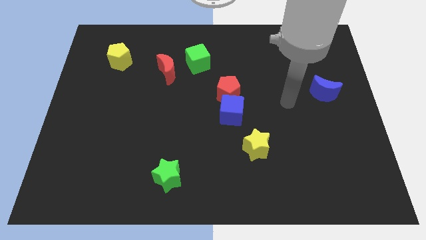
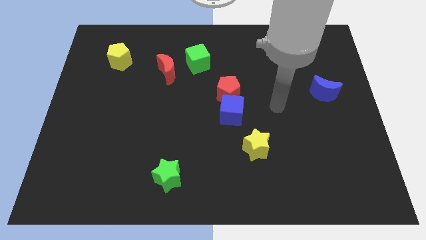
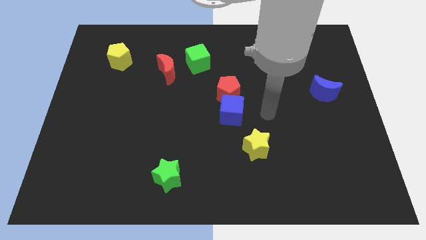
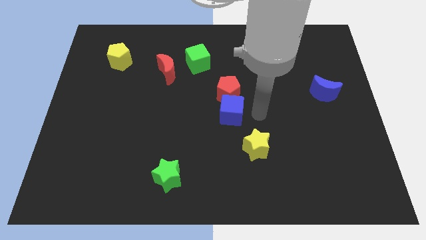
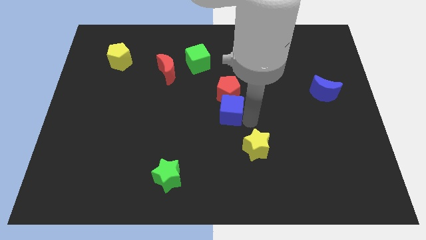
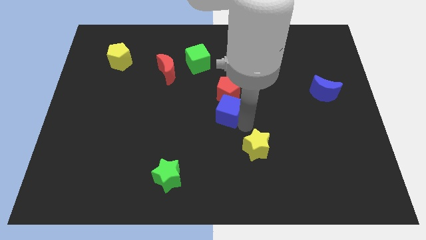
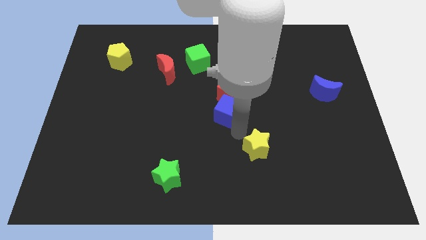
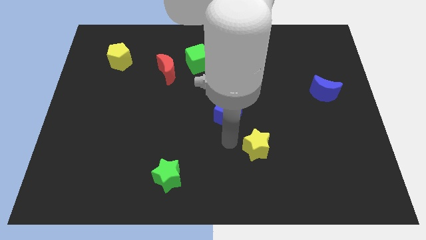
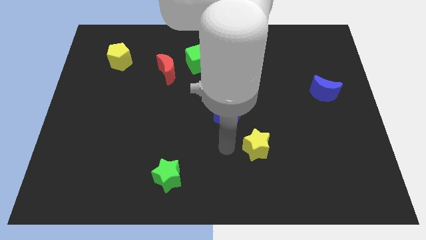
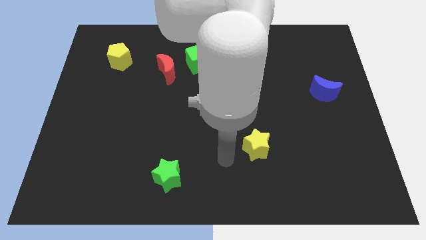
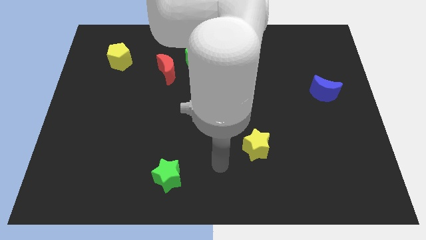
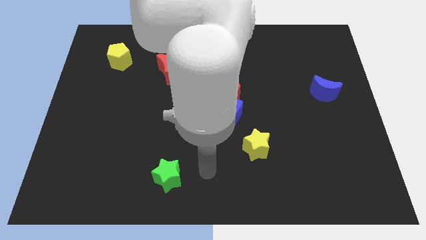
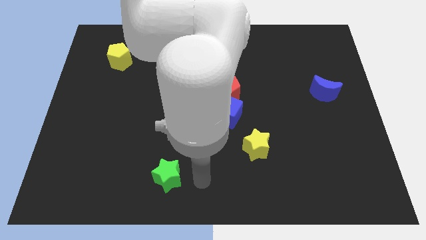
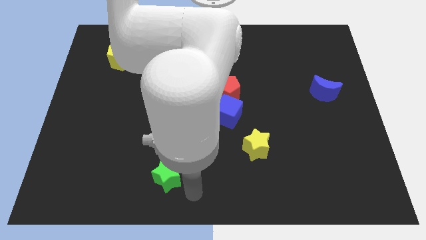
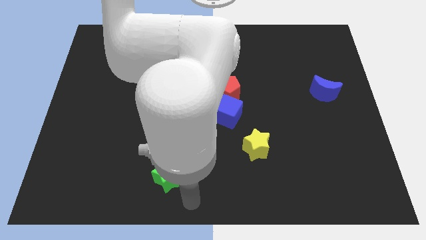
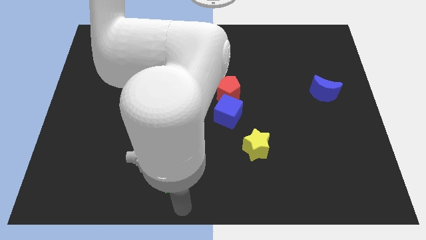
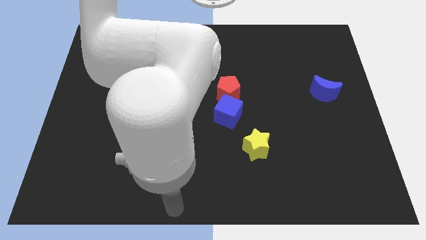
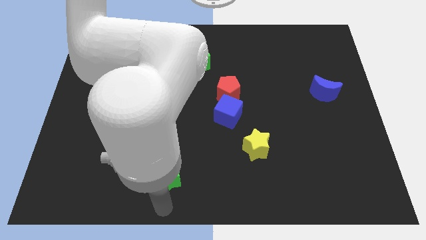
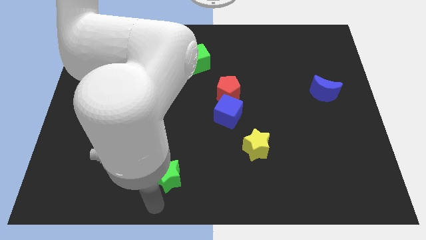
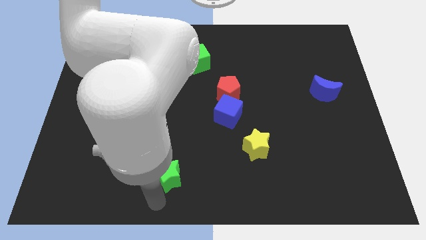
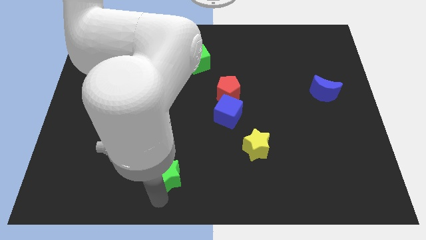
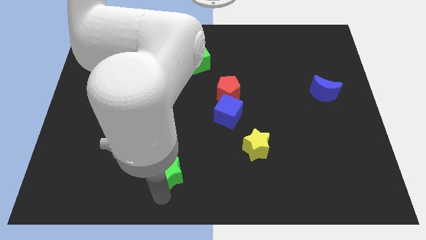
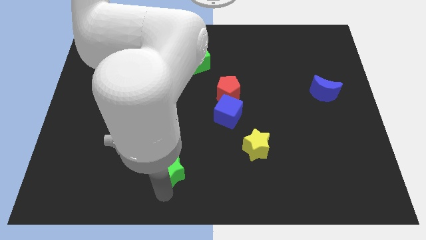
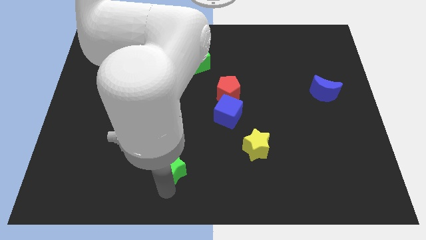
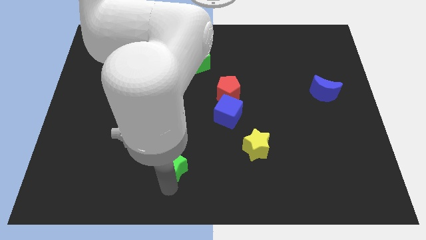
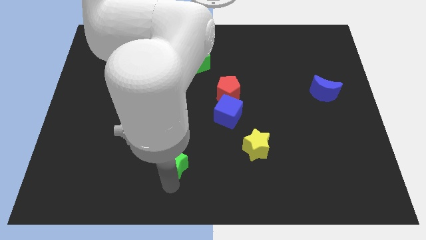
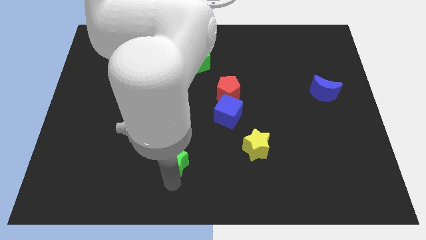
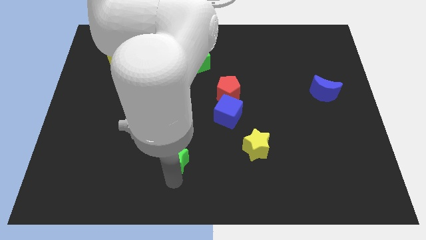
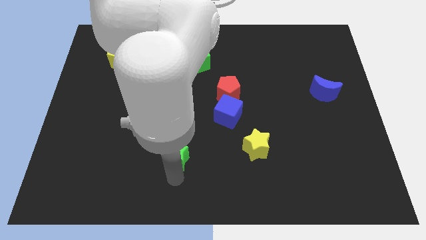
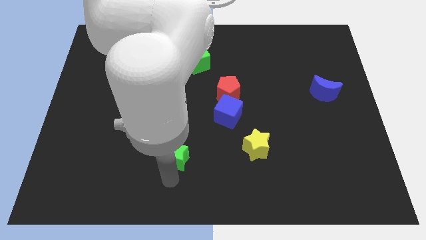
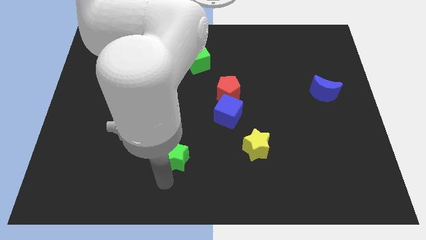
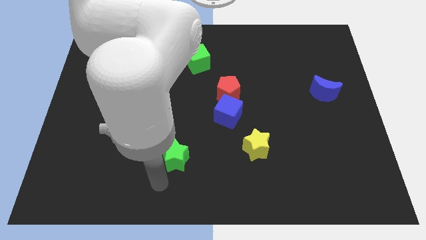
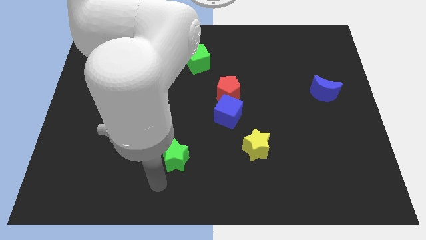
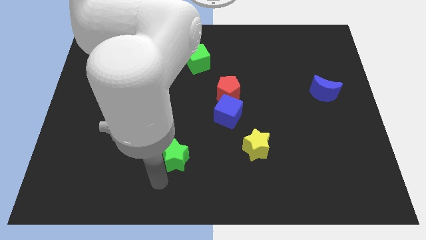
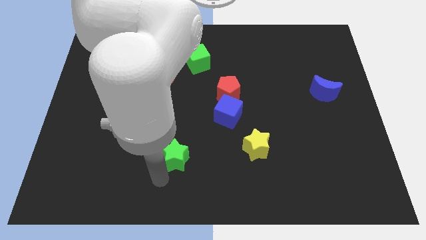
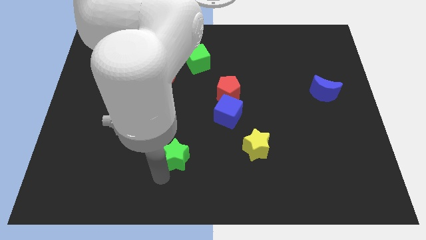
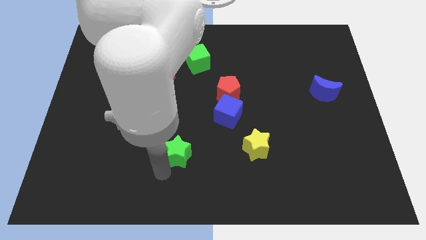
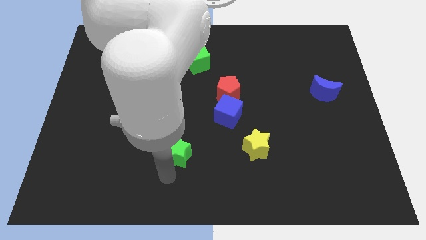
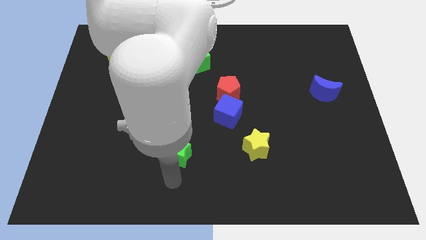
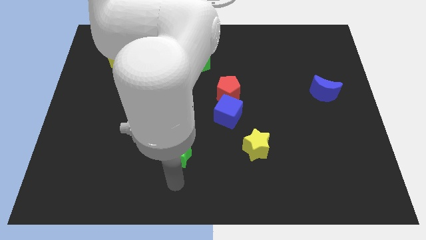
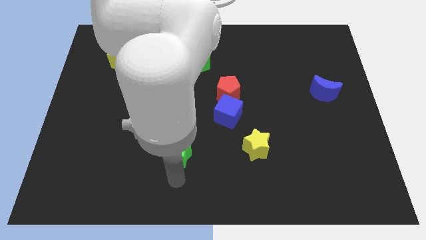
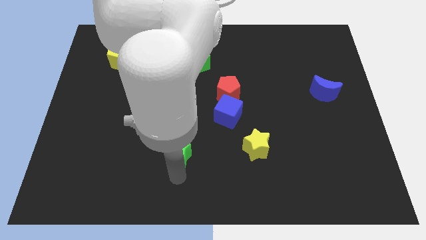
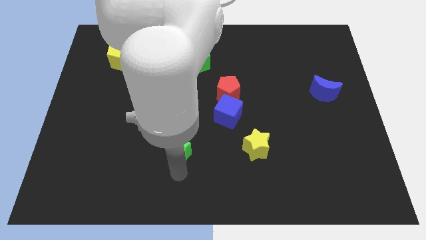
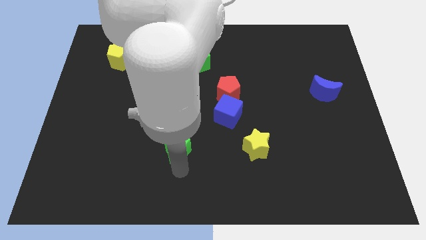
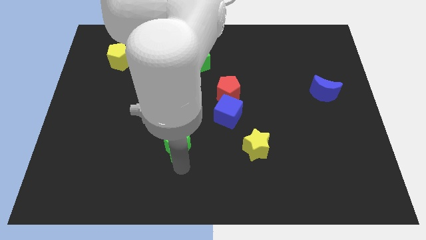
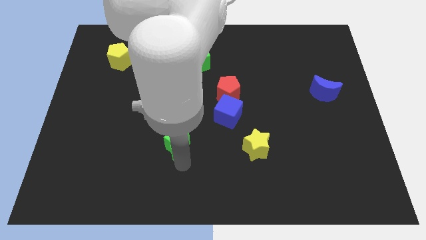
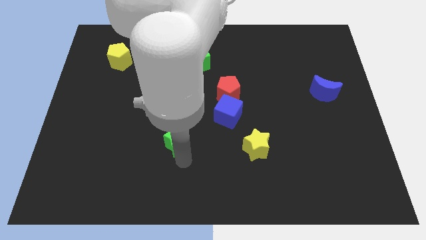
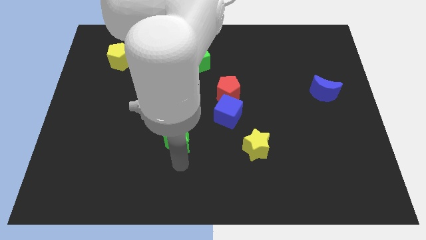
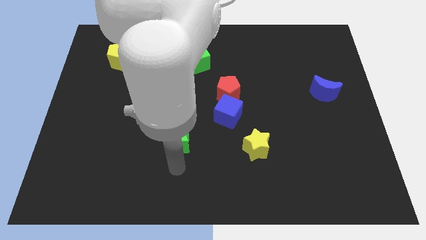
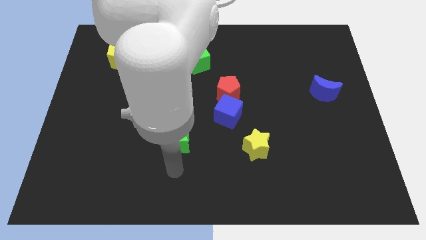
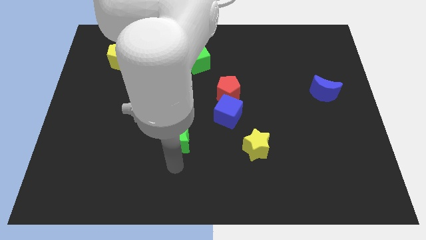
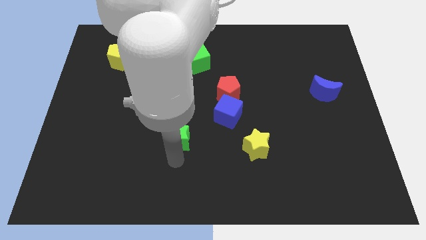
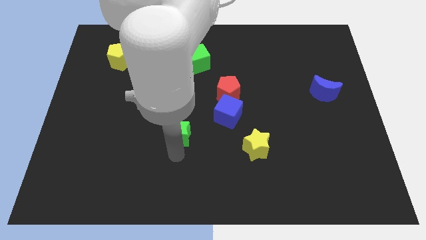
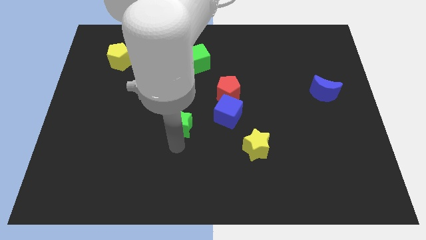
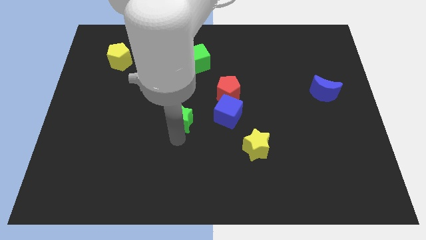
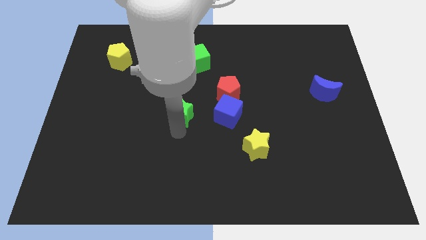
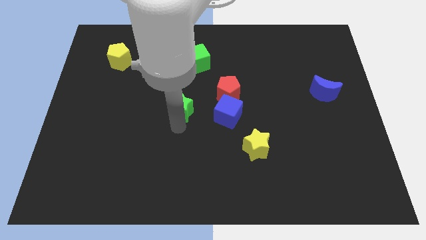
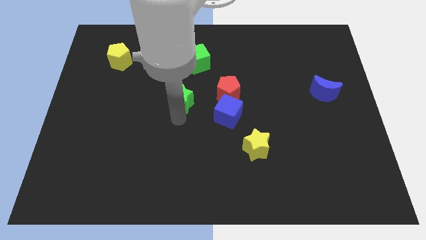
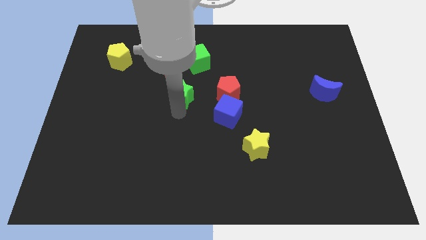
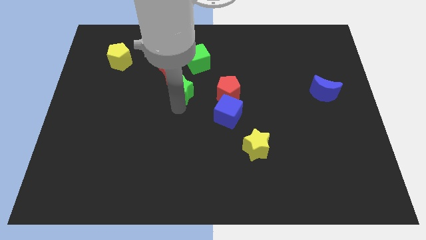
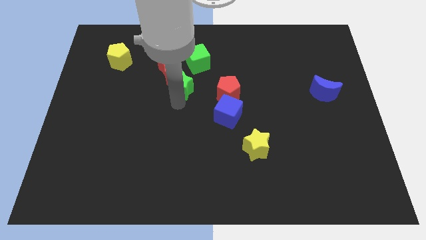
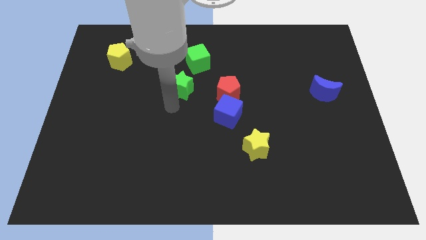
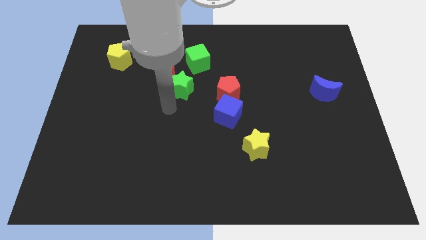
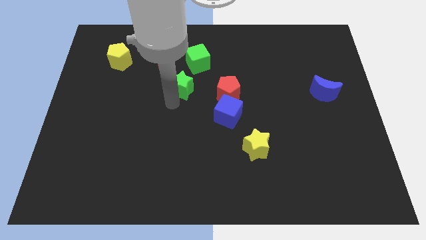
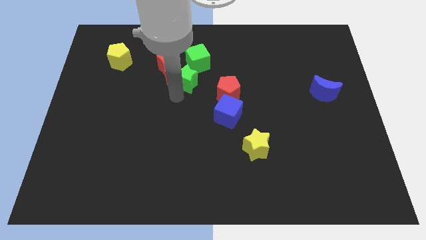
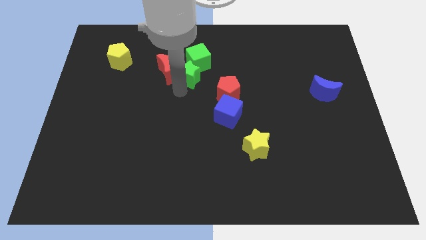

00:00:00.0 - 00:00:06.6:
push the green star close to the green cube
